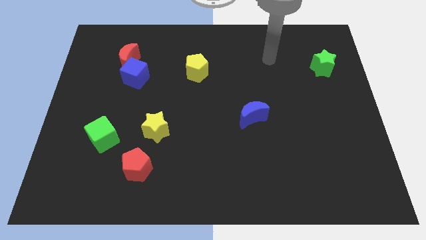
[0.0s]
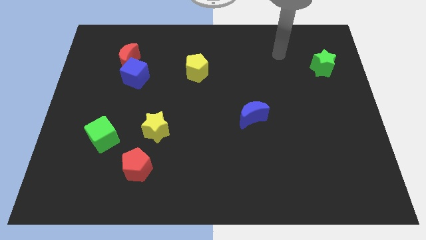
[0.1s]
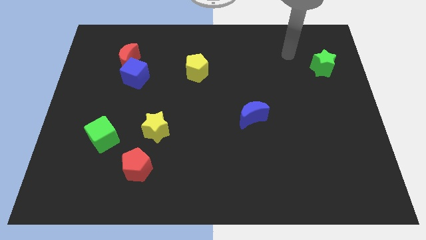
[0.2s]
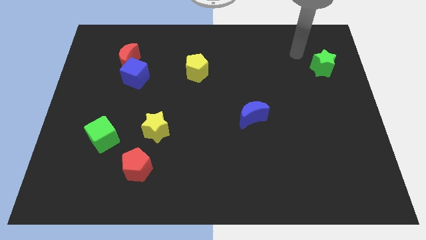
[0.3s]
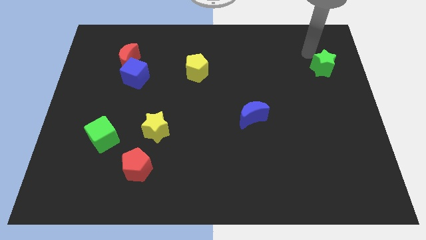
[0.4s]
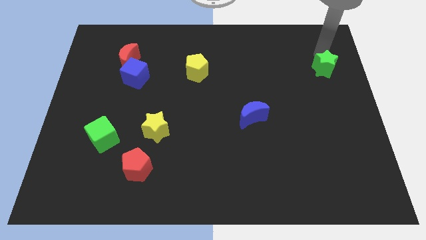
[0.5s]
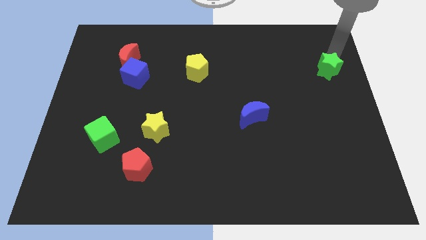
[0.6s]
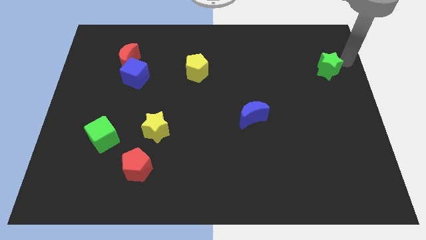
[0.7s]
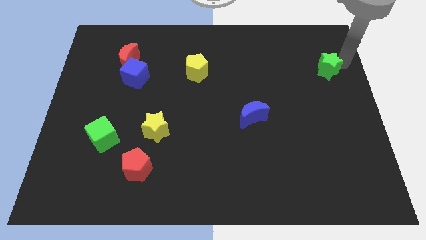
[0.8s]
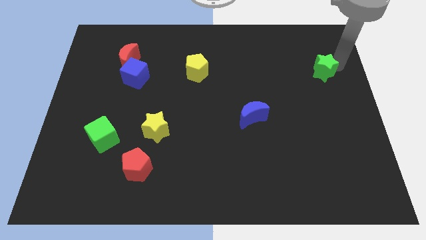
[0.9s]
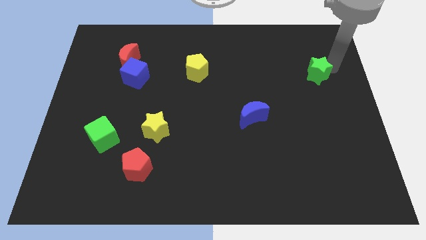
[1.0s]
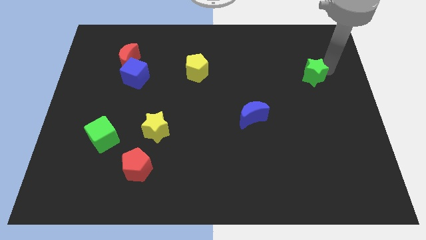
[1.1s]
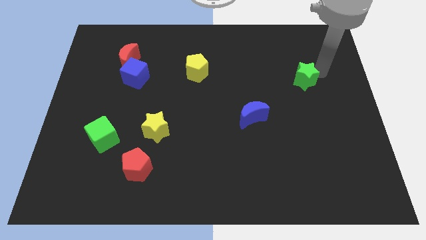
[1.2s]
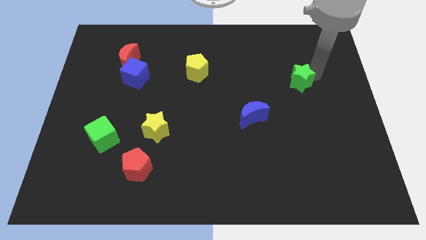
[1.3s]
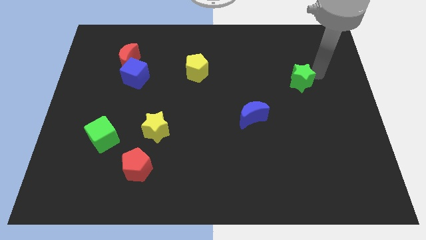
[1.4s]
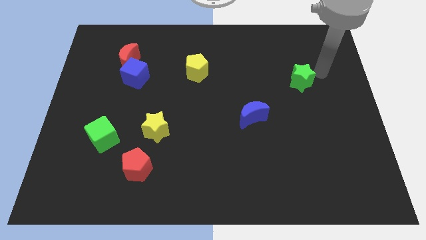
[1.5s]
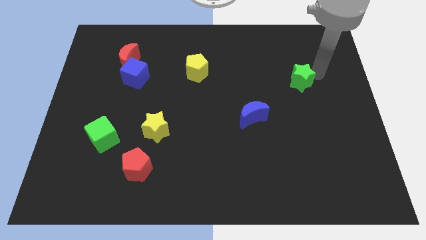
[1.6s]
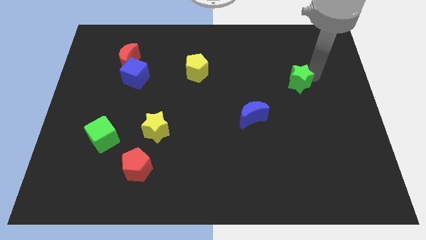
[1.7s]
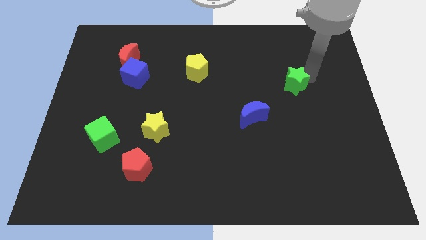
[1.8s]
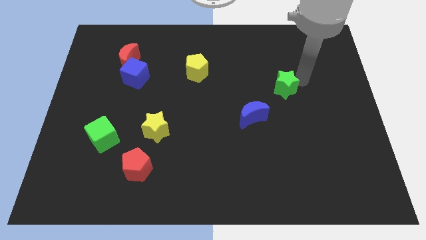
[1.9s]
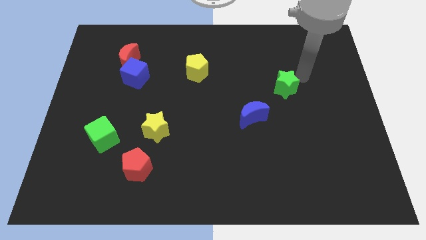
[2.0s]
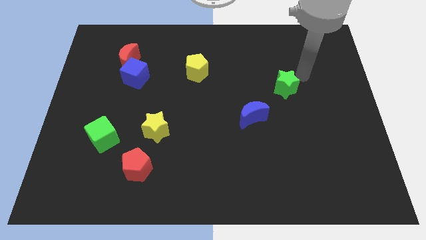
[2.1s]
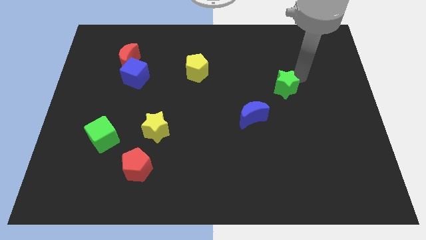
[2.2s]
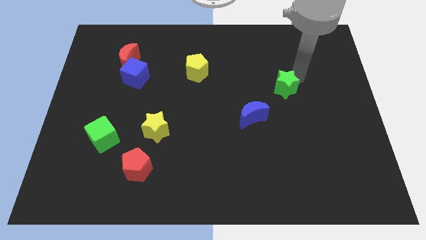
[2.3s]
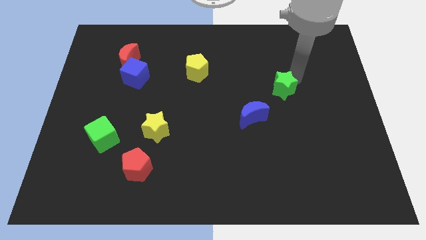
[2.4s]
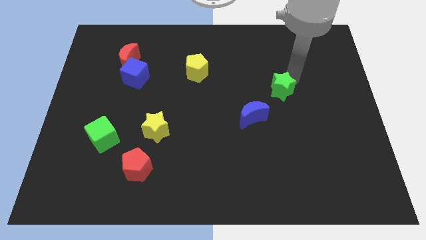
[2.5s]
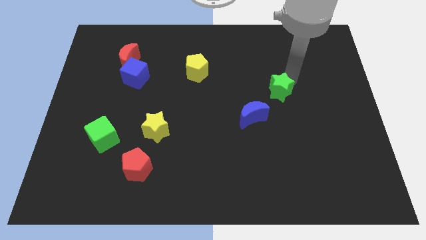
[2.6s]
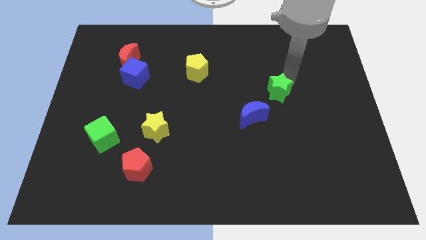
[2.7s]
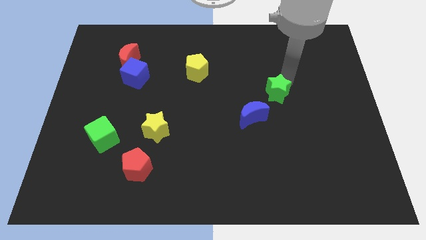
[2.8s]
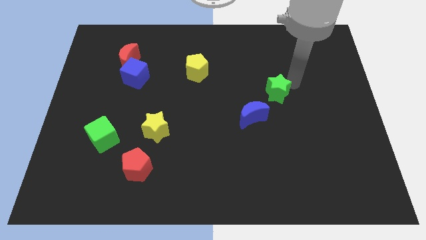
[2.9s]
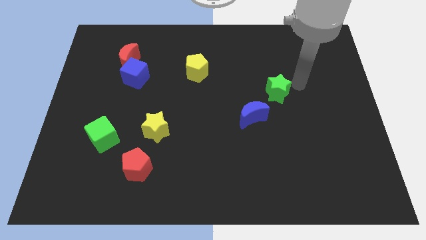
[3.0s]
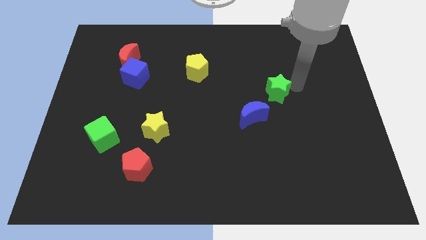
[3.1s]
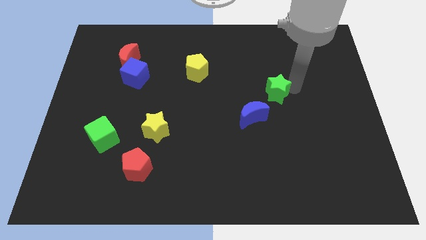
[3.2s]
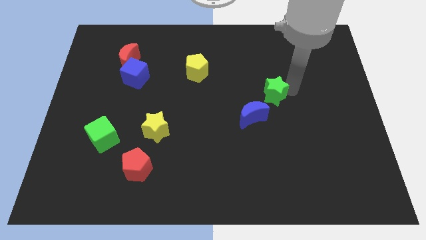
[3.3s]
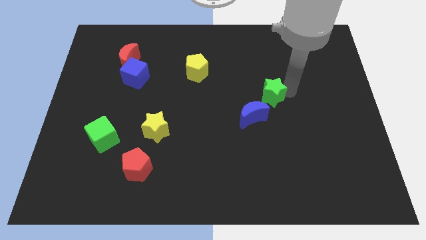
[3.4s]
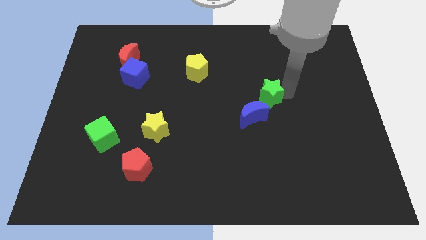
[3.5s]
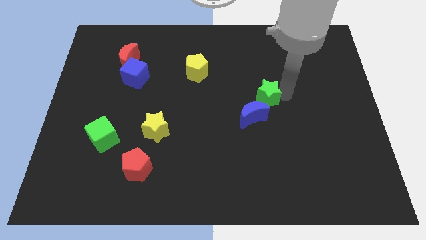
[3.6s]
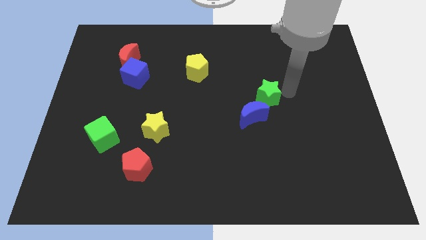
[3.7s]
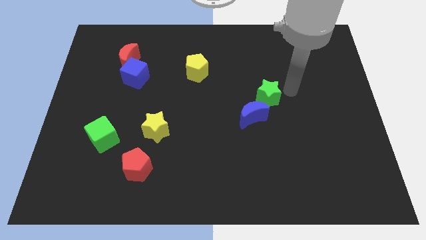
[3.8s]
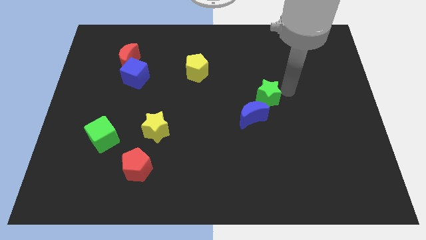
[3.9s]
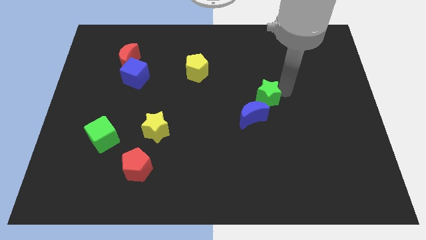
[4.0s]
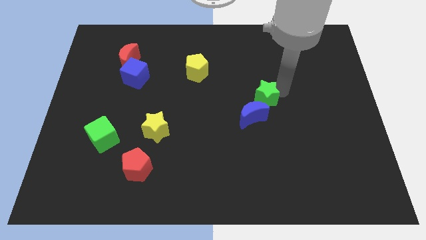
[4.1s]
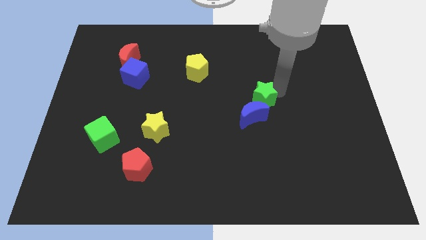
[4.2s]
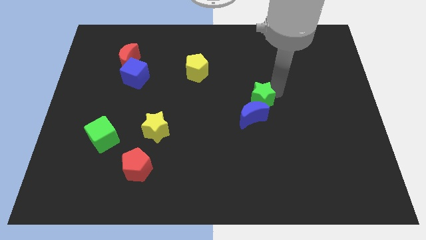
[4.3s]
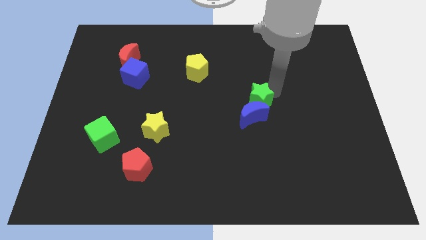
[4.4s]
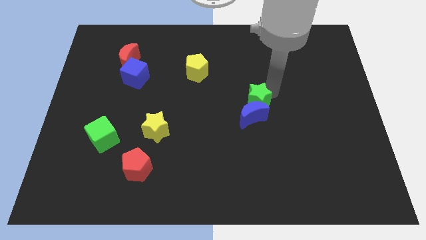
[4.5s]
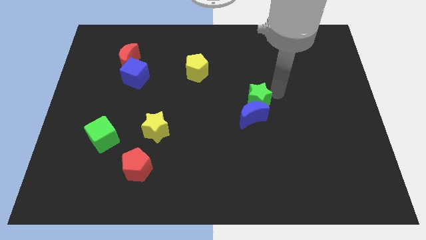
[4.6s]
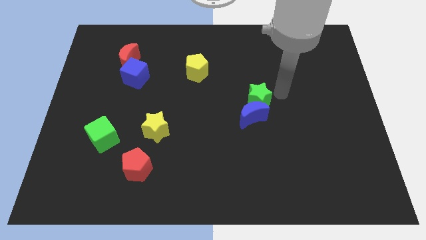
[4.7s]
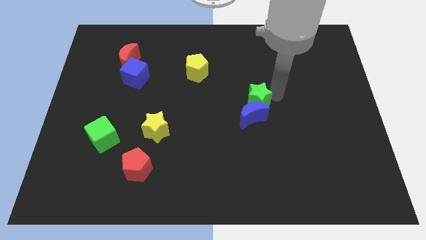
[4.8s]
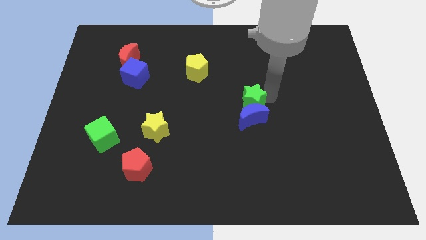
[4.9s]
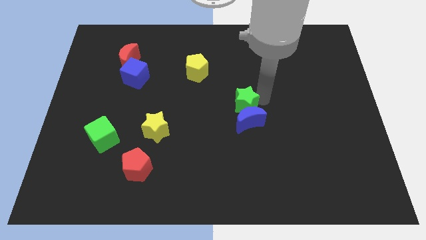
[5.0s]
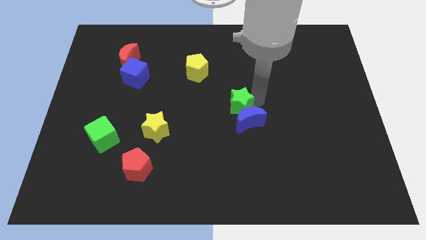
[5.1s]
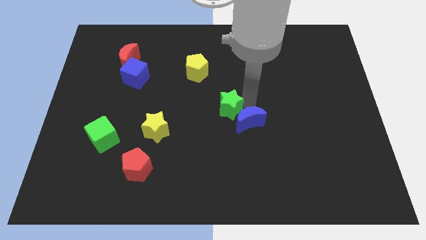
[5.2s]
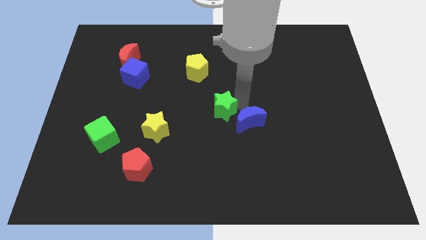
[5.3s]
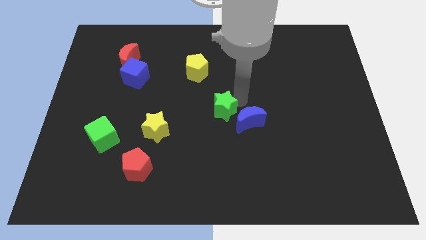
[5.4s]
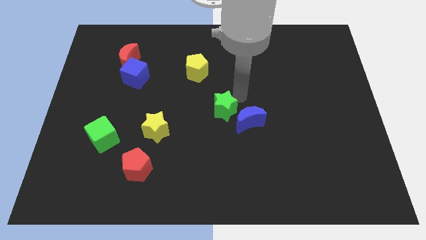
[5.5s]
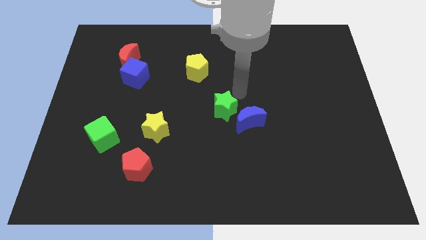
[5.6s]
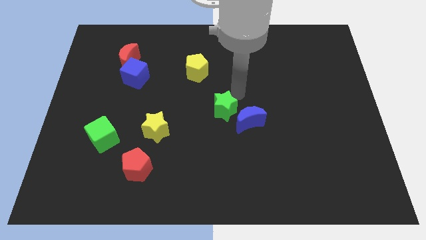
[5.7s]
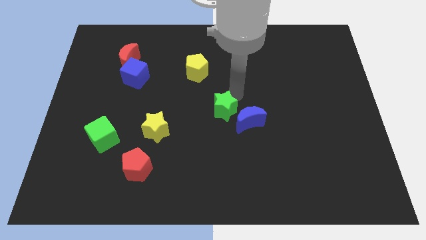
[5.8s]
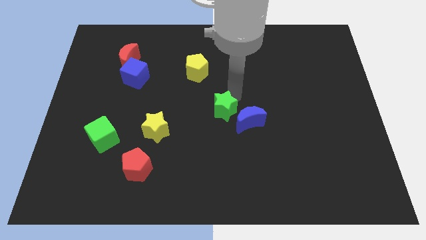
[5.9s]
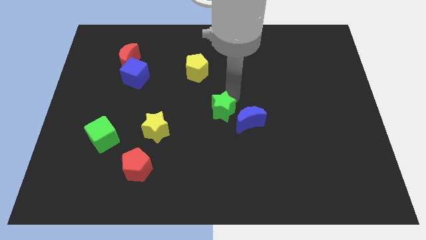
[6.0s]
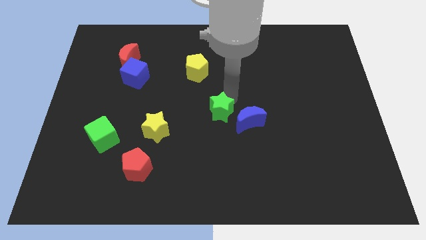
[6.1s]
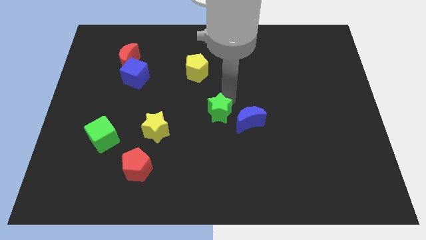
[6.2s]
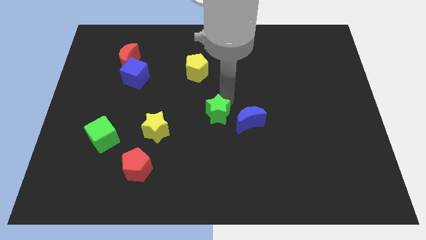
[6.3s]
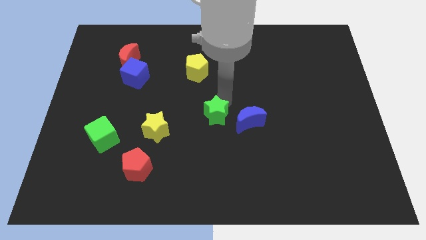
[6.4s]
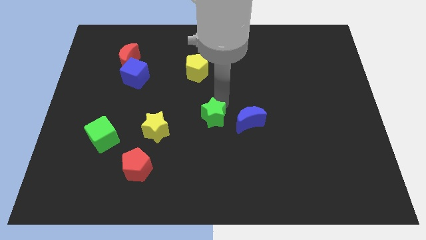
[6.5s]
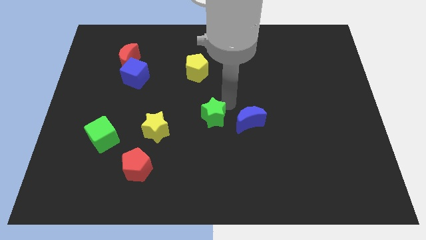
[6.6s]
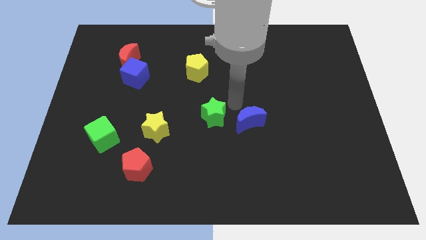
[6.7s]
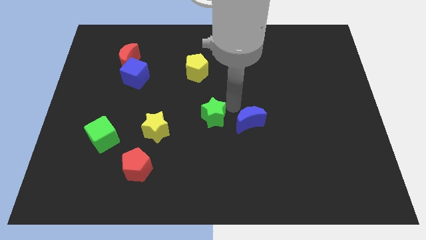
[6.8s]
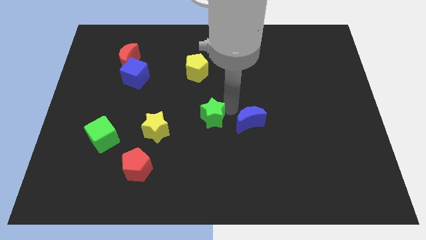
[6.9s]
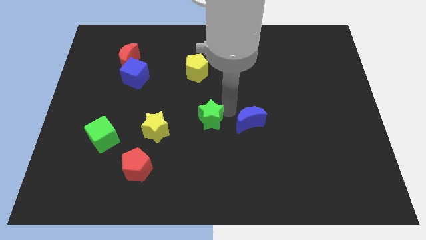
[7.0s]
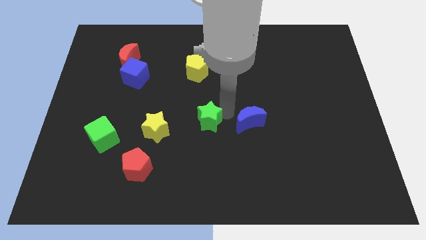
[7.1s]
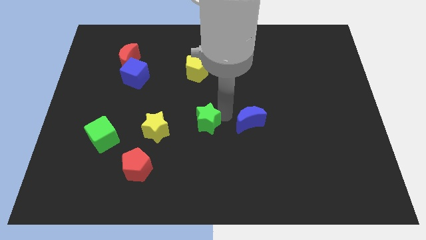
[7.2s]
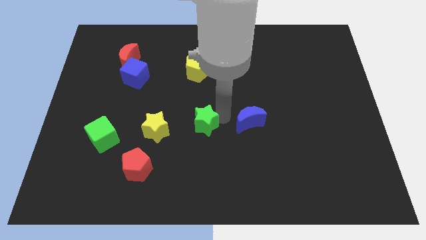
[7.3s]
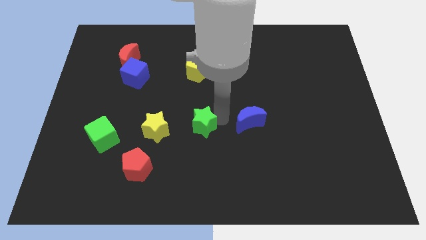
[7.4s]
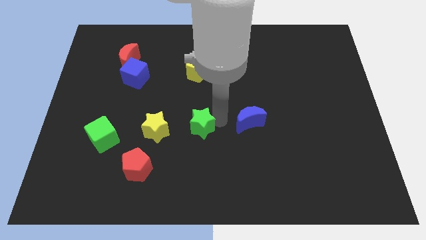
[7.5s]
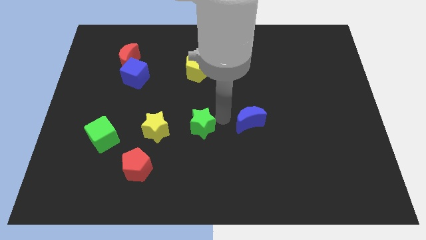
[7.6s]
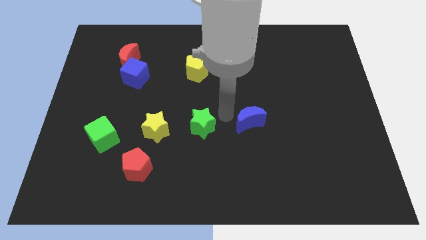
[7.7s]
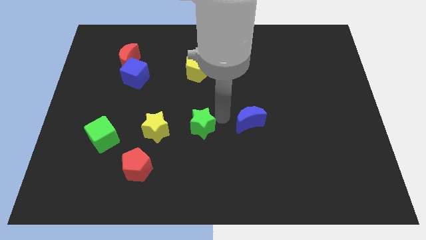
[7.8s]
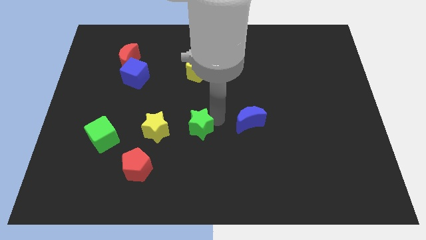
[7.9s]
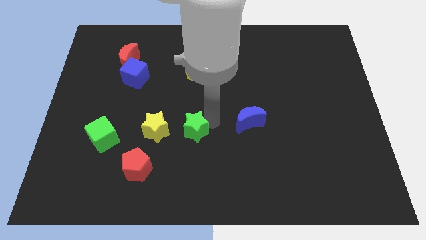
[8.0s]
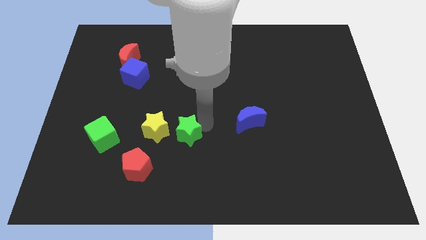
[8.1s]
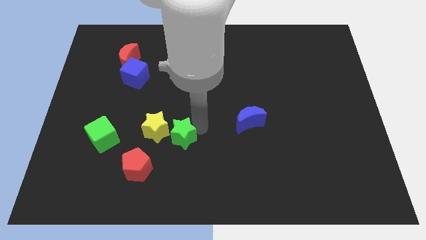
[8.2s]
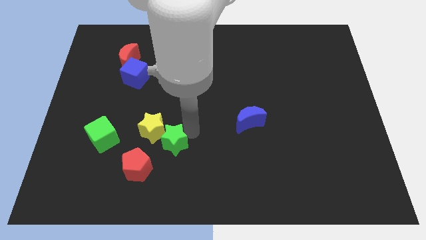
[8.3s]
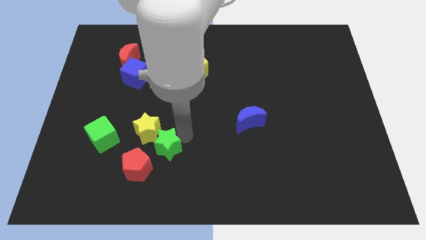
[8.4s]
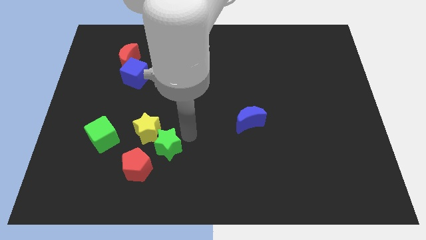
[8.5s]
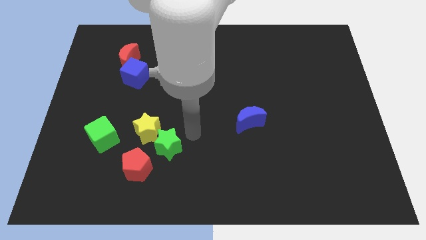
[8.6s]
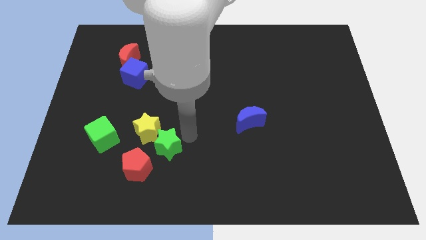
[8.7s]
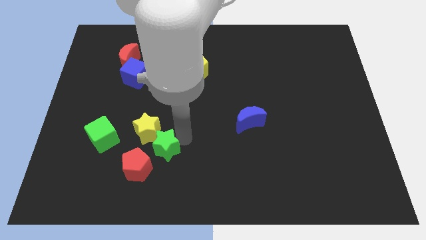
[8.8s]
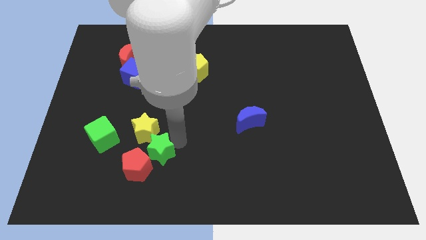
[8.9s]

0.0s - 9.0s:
move the green star to the red pentagon
